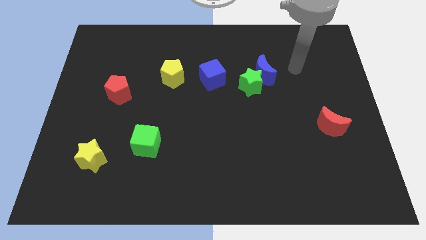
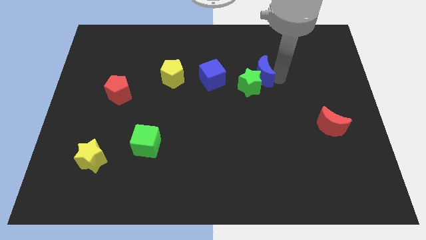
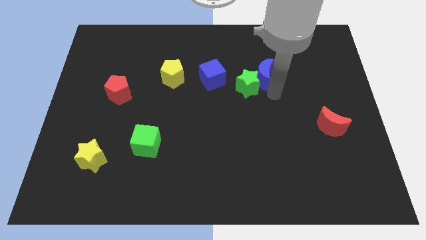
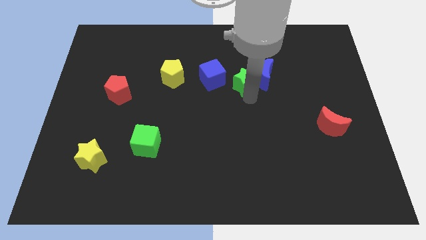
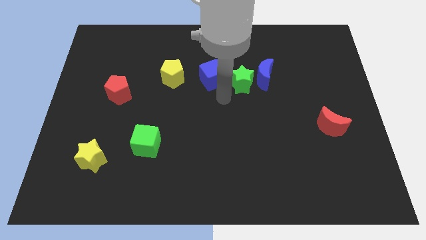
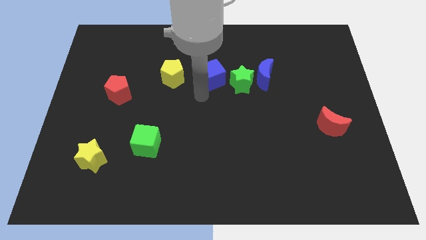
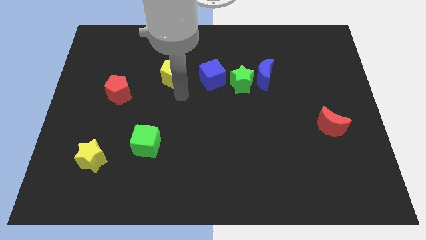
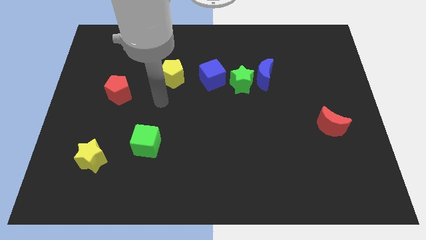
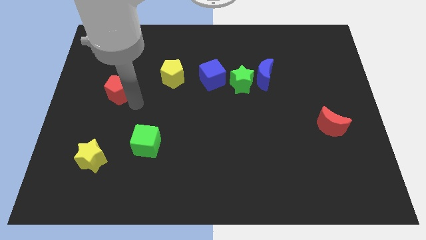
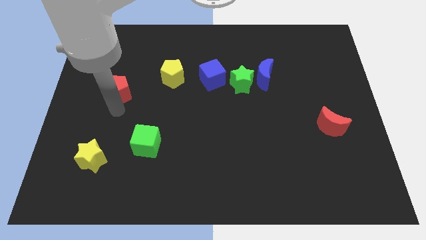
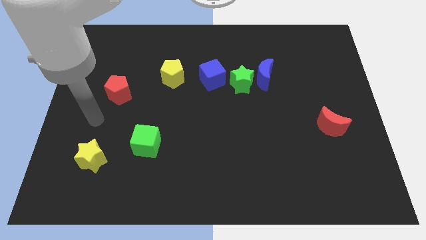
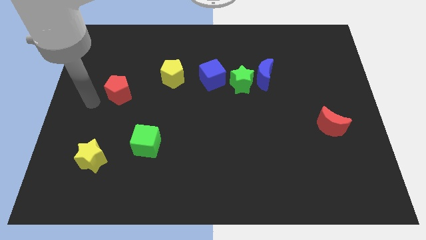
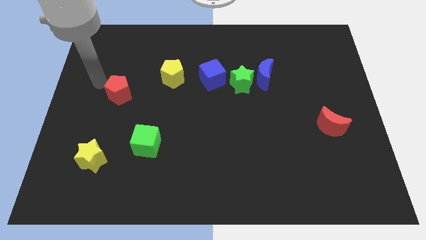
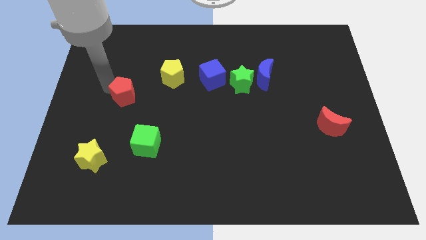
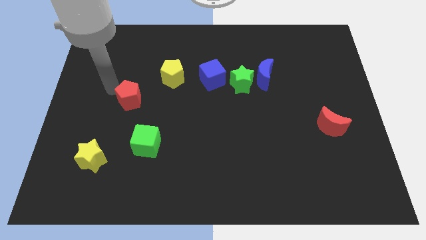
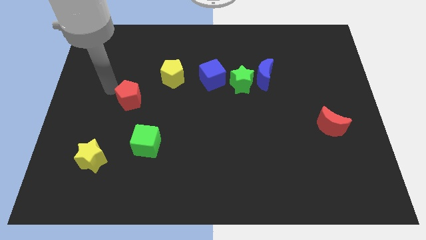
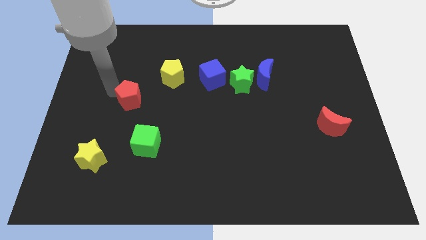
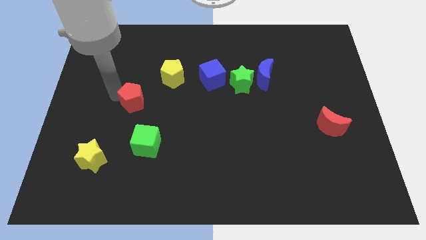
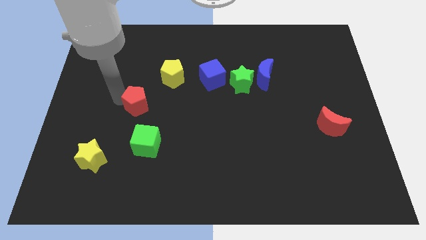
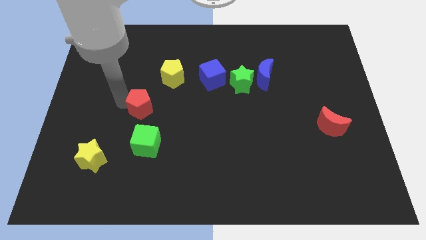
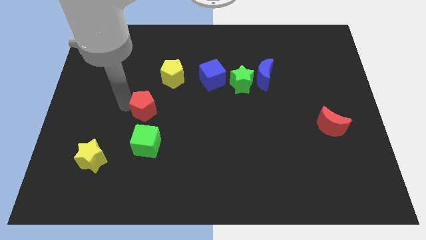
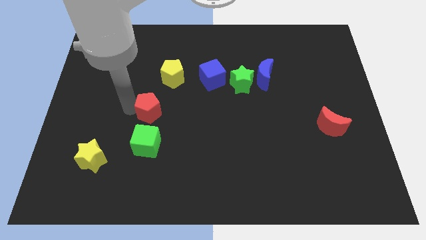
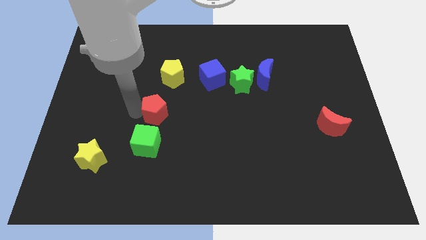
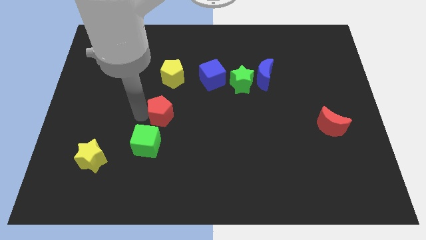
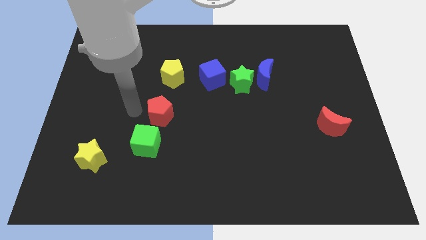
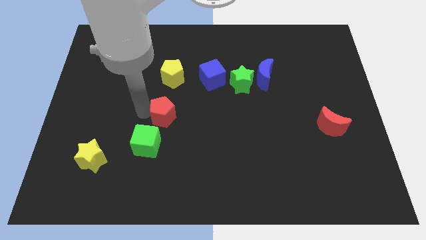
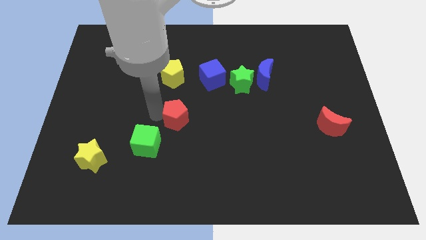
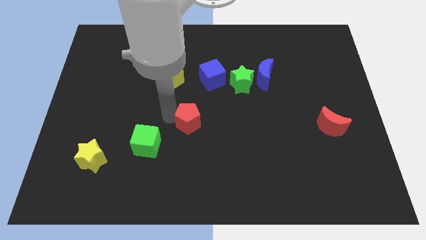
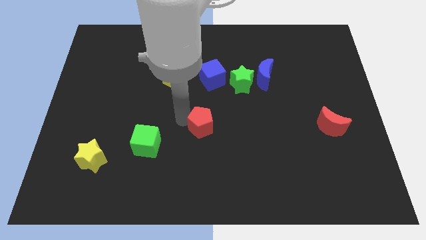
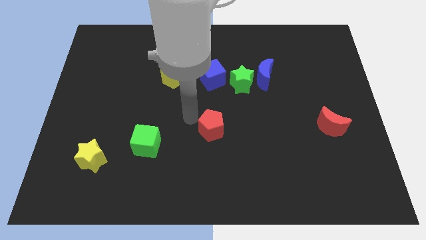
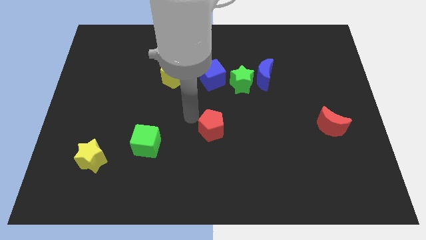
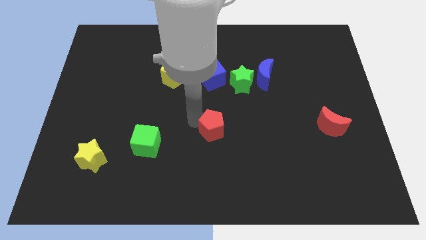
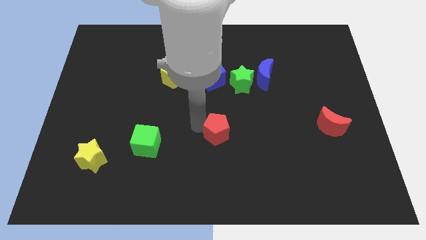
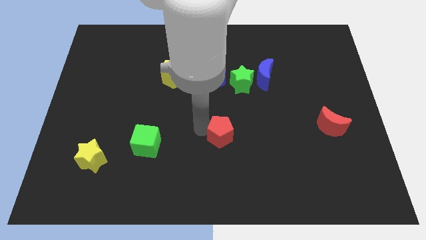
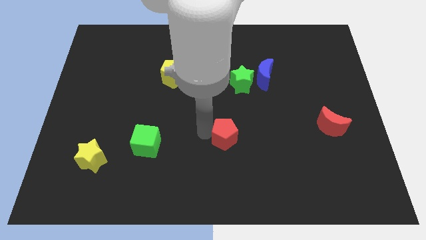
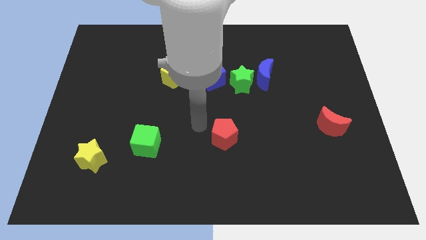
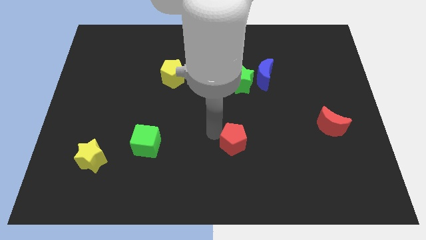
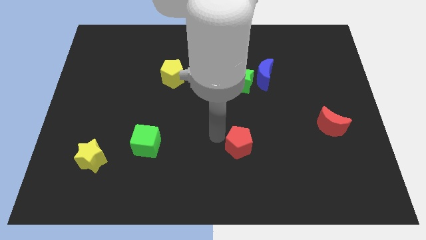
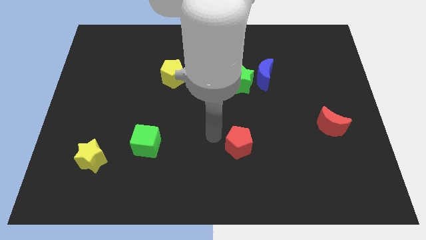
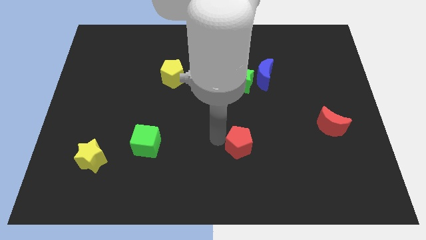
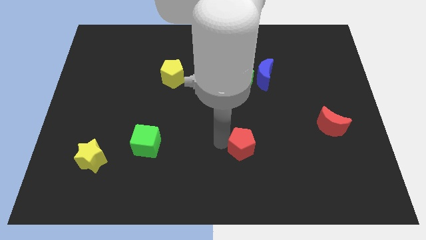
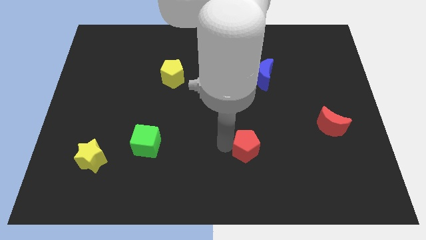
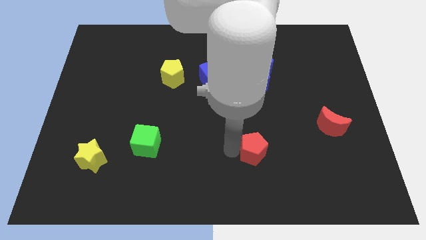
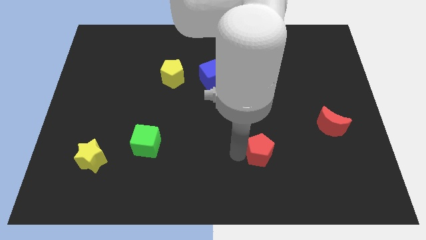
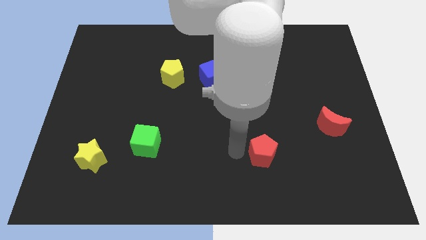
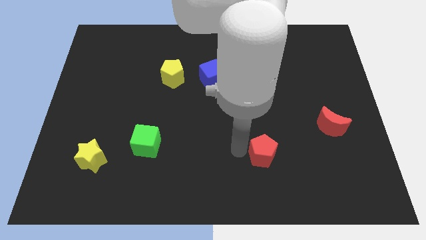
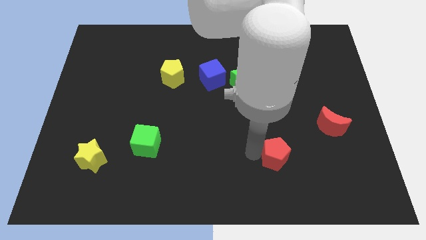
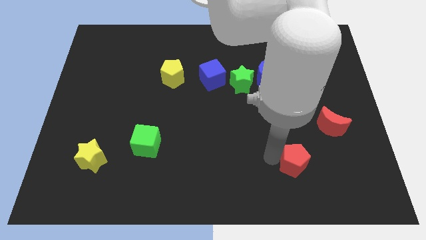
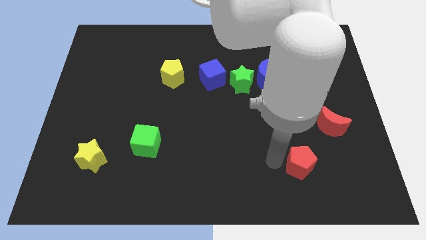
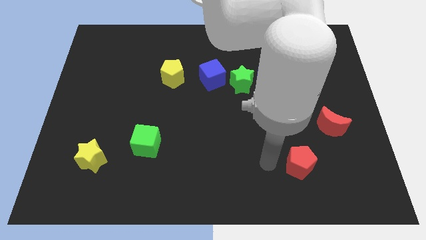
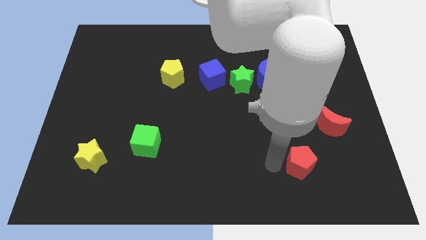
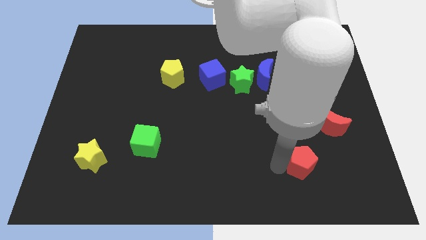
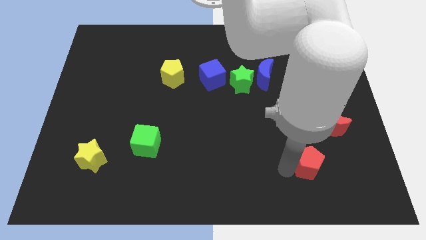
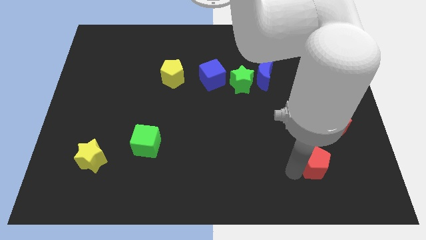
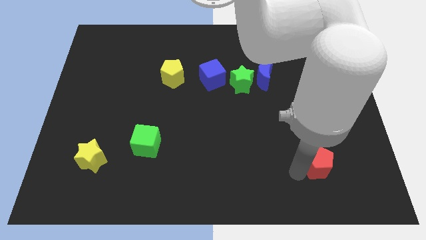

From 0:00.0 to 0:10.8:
push the red pentagon below the red moon

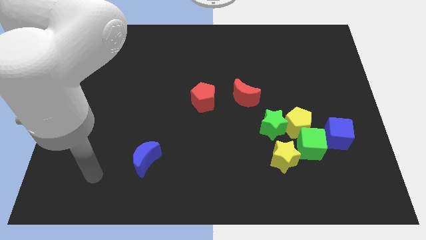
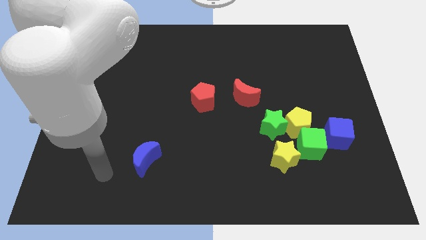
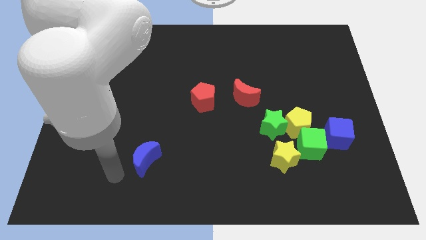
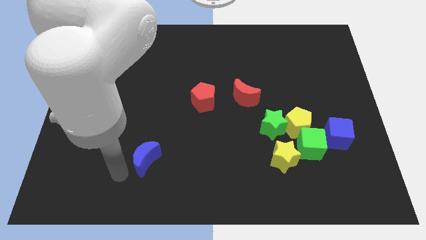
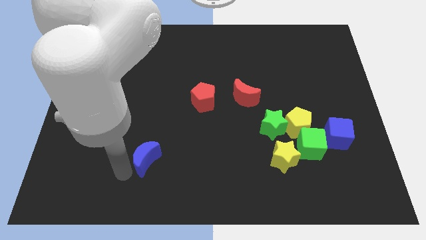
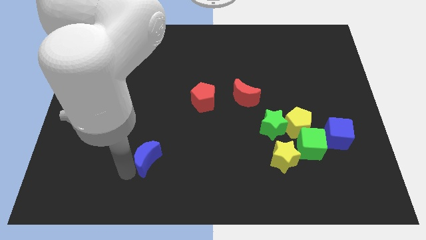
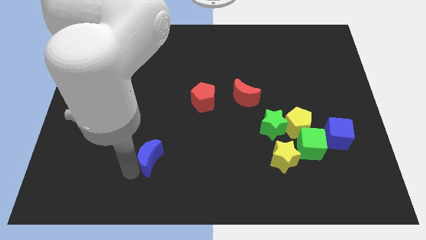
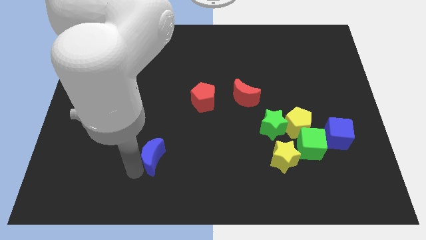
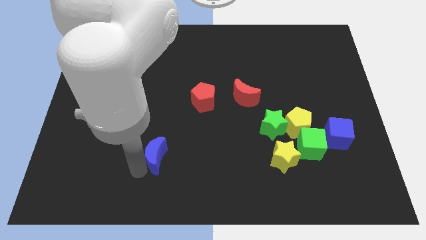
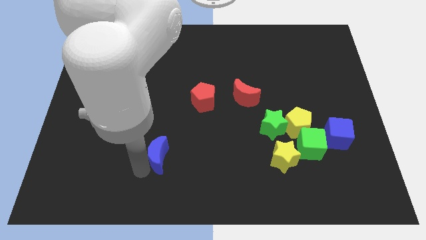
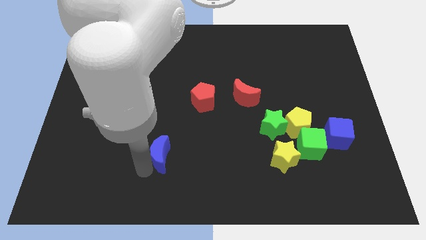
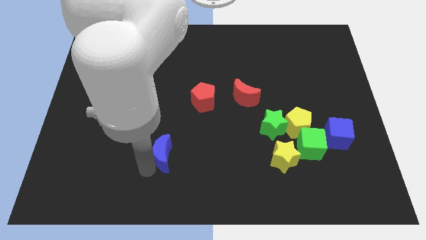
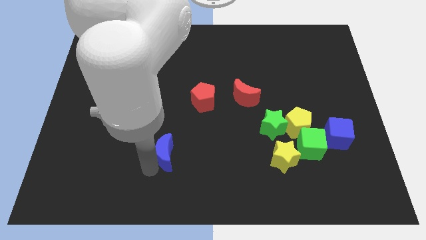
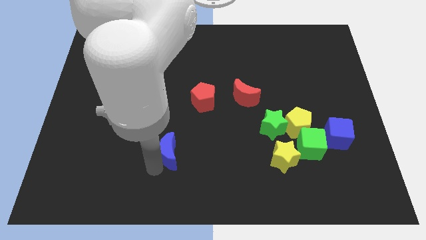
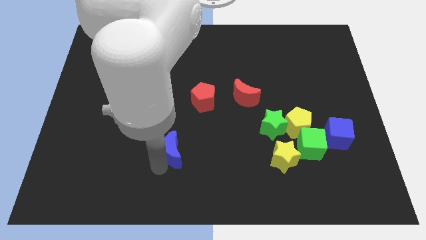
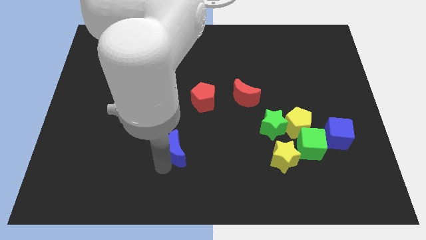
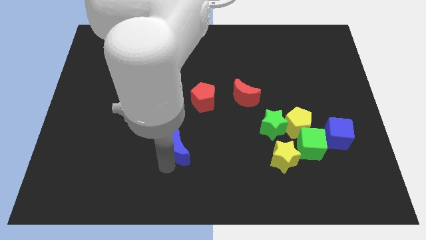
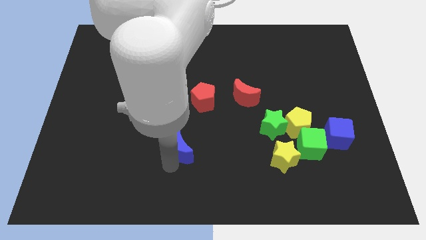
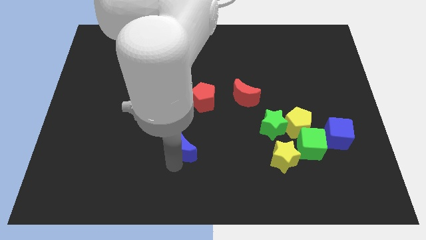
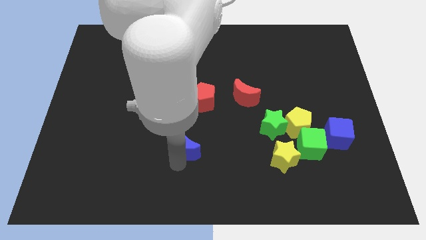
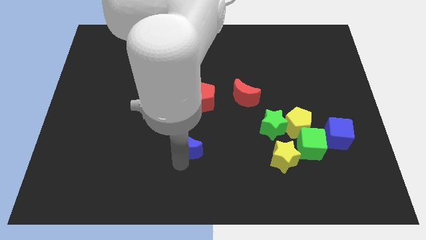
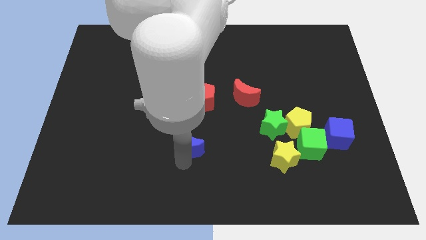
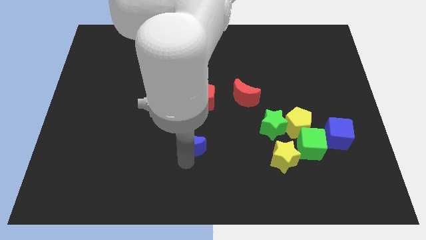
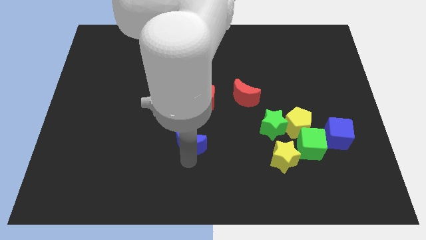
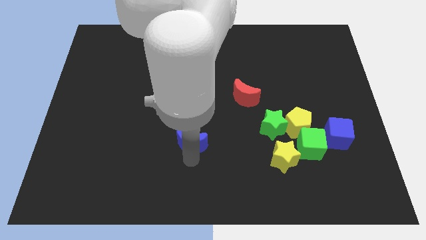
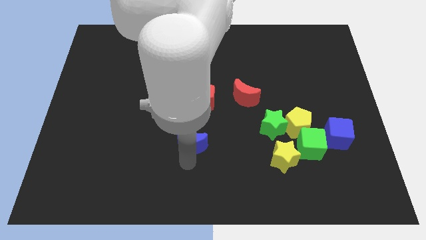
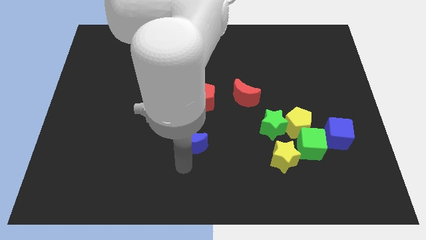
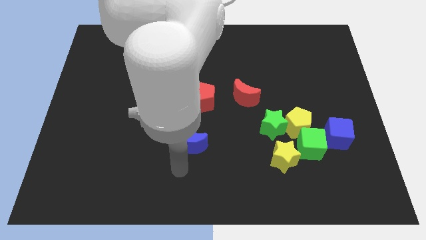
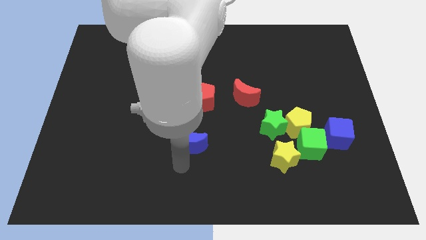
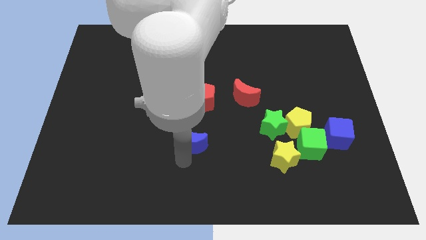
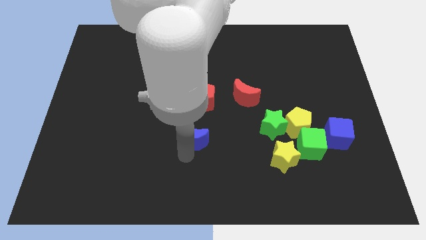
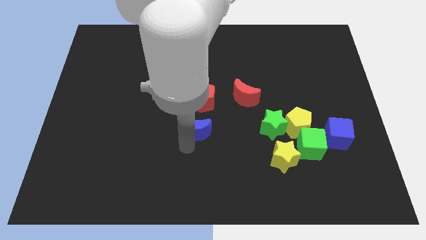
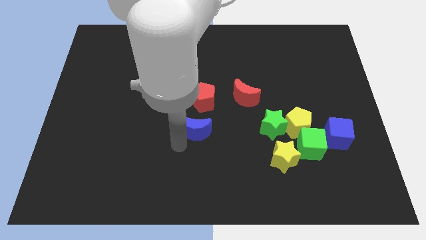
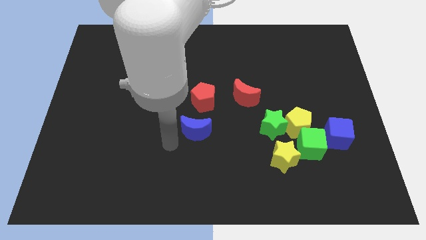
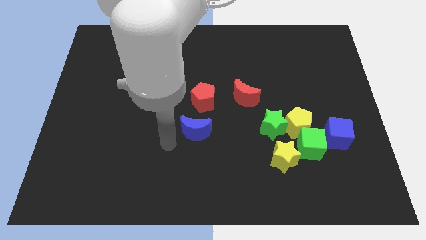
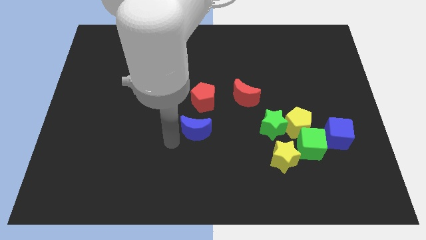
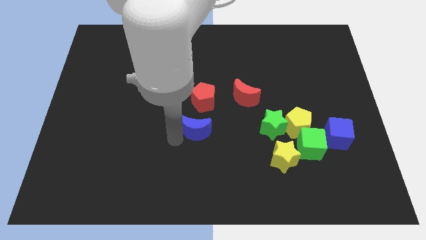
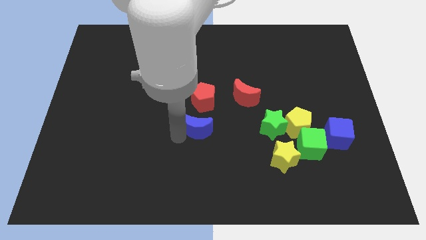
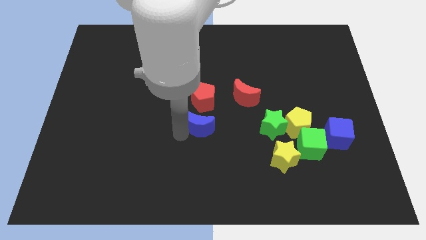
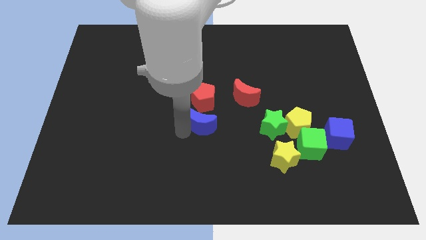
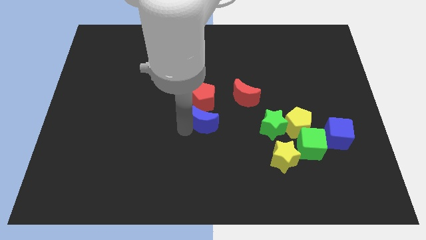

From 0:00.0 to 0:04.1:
push the blue moon diagonally down and to the right of the red pentagon
